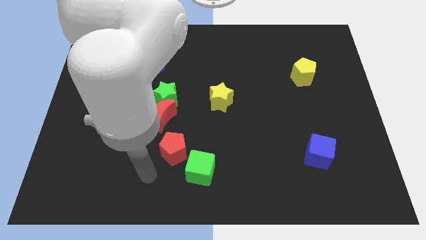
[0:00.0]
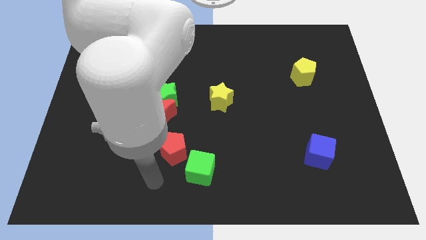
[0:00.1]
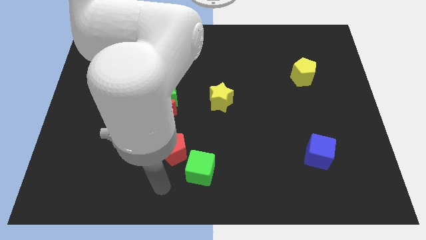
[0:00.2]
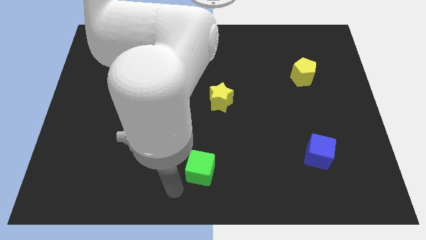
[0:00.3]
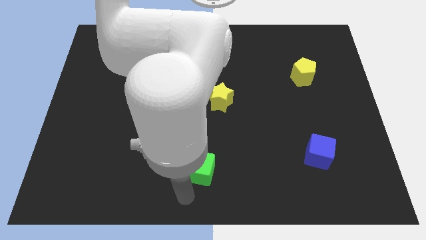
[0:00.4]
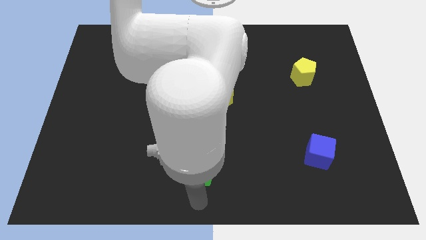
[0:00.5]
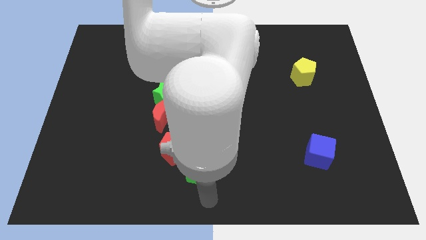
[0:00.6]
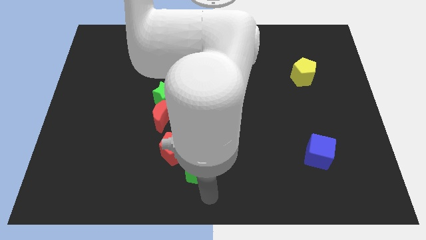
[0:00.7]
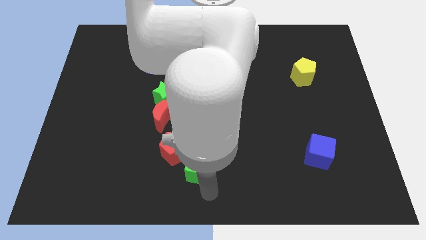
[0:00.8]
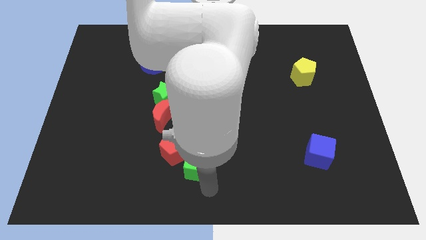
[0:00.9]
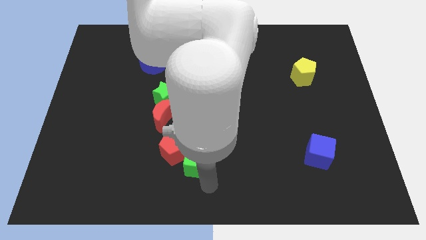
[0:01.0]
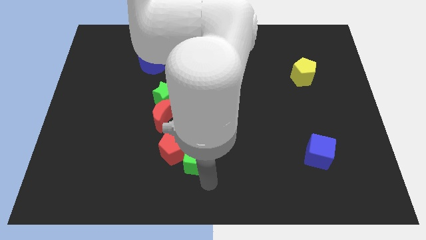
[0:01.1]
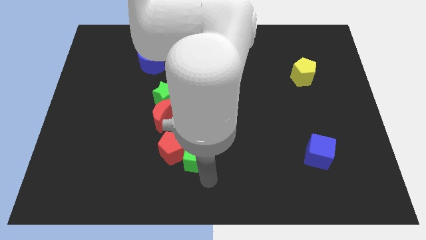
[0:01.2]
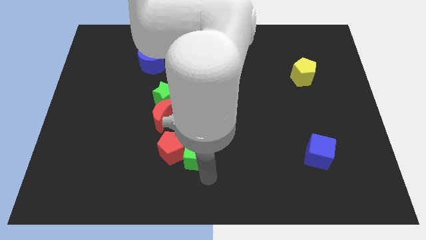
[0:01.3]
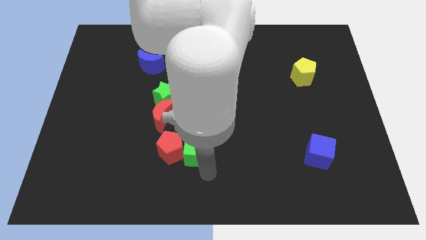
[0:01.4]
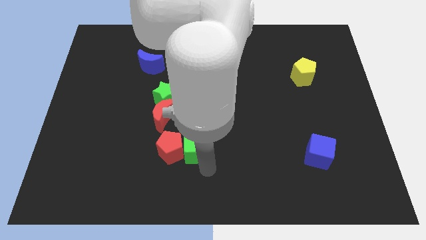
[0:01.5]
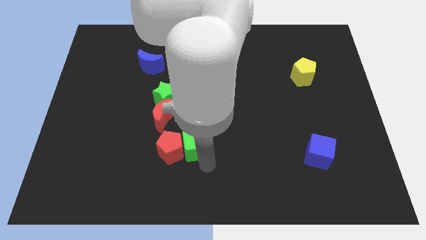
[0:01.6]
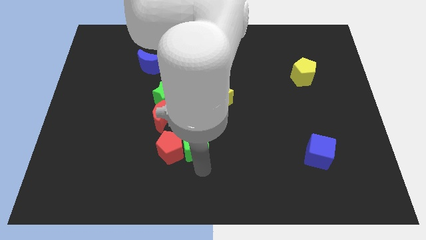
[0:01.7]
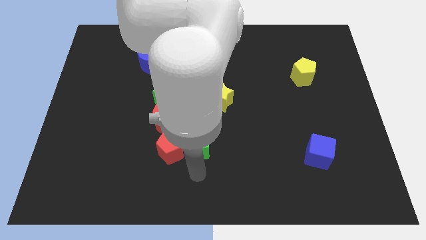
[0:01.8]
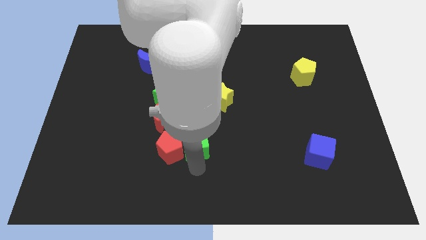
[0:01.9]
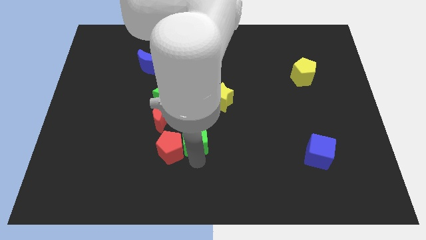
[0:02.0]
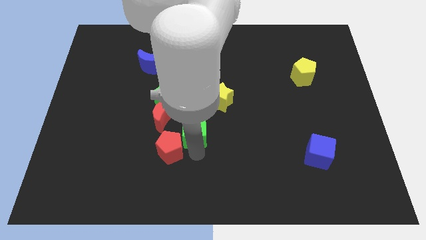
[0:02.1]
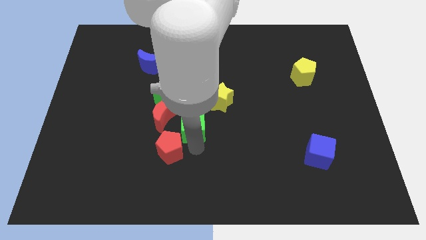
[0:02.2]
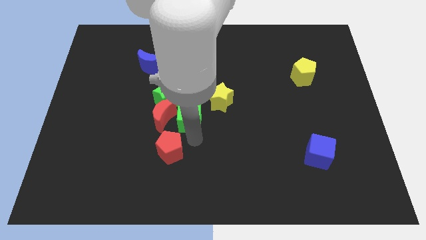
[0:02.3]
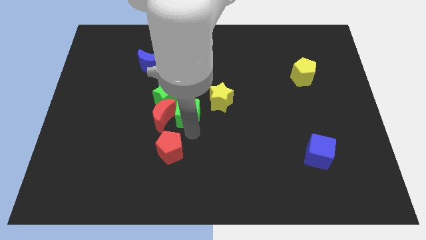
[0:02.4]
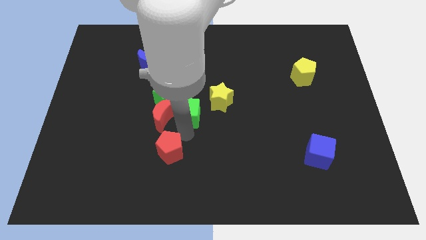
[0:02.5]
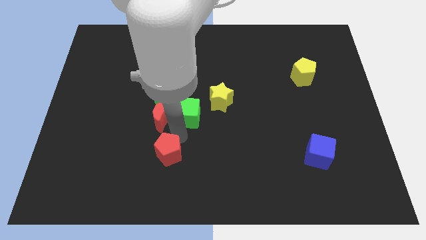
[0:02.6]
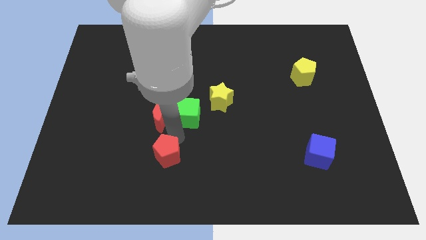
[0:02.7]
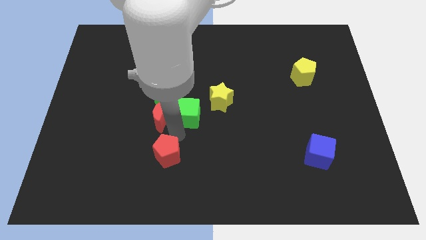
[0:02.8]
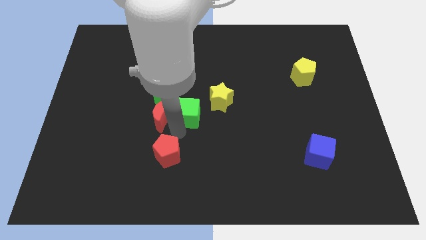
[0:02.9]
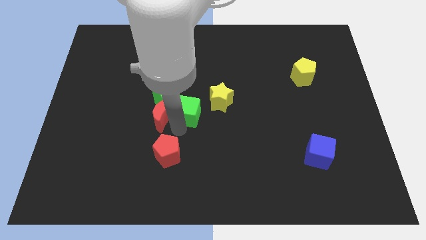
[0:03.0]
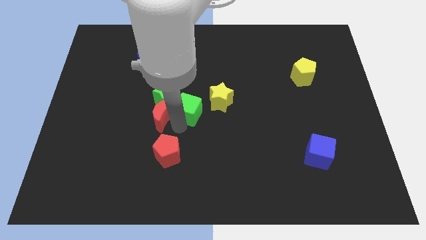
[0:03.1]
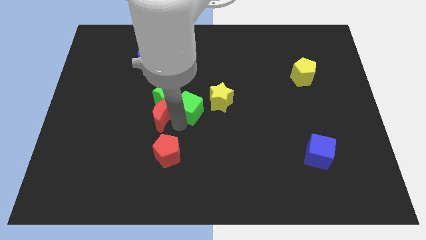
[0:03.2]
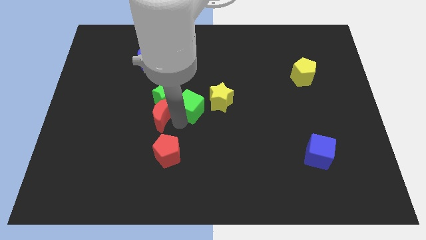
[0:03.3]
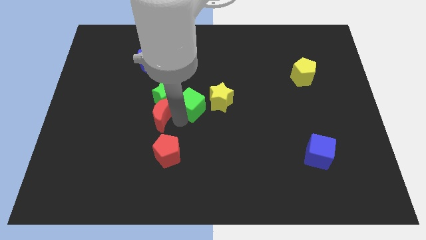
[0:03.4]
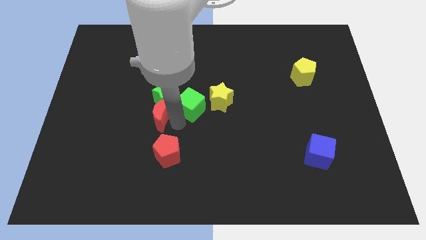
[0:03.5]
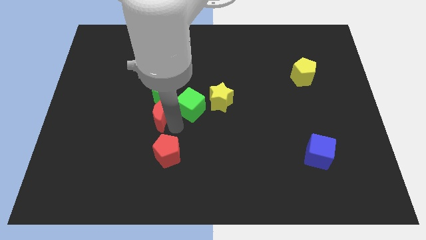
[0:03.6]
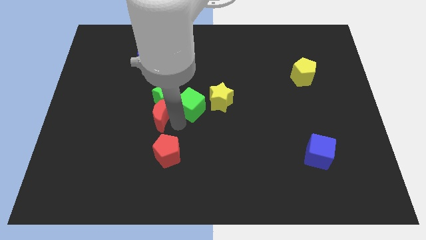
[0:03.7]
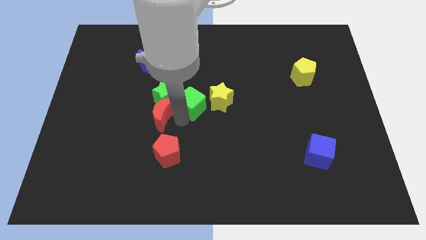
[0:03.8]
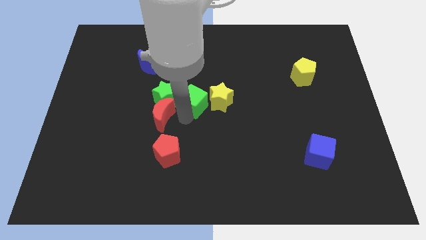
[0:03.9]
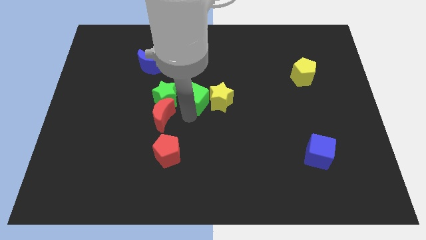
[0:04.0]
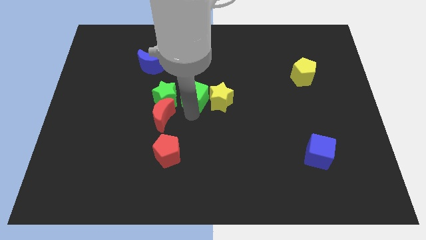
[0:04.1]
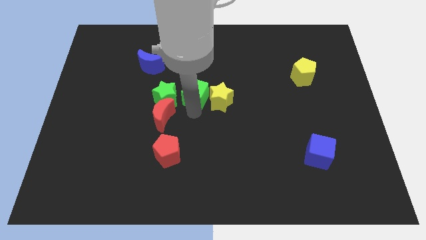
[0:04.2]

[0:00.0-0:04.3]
slide the green cube upwards

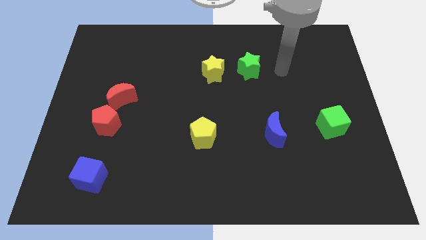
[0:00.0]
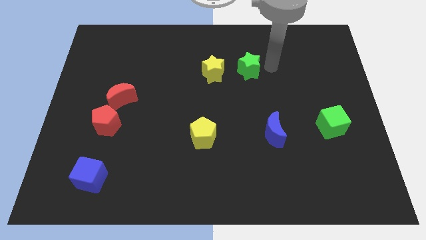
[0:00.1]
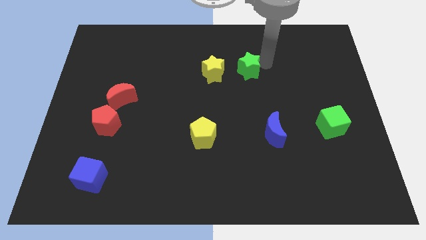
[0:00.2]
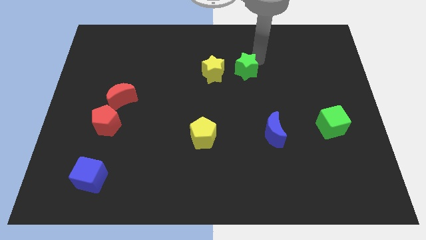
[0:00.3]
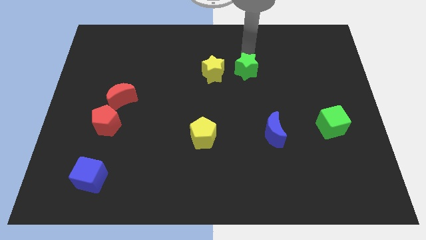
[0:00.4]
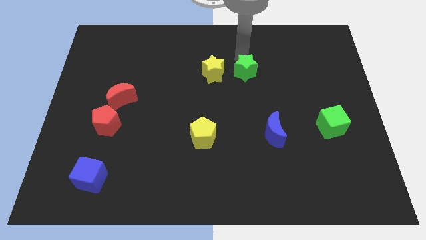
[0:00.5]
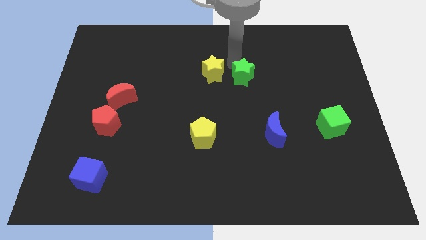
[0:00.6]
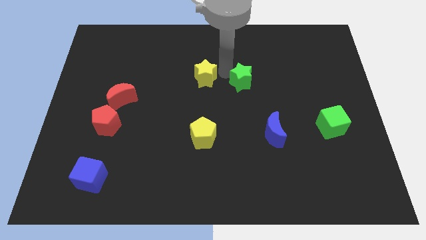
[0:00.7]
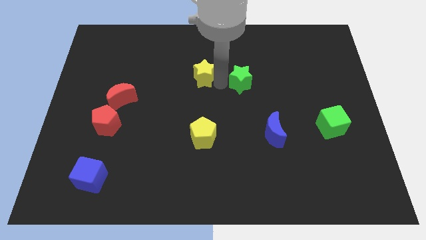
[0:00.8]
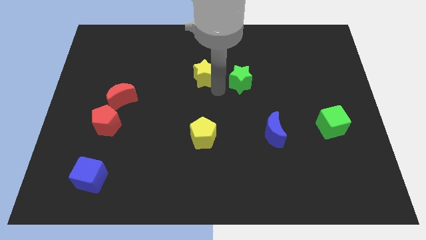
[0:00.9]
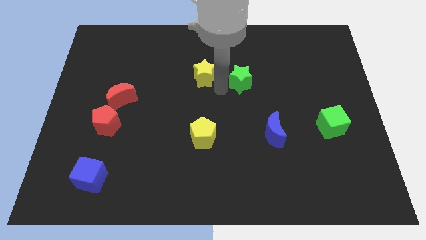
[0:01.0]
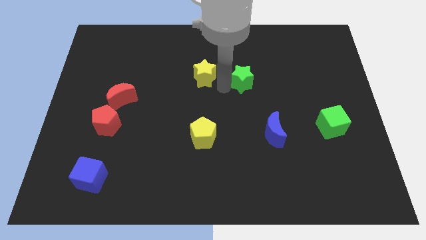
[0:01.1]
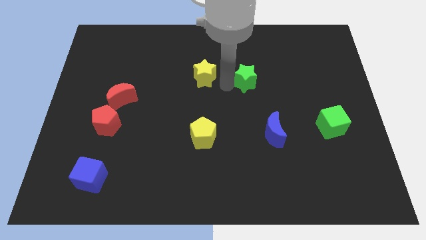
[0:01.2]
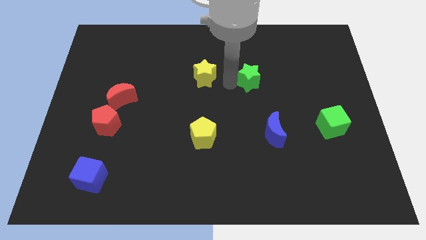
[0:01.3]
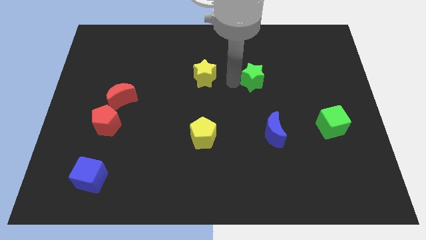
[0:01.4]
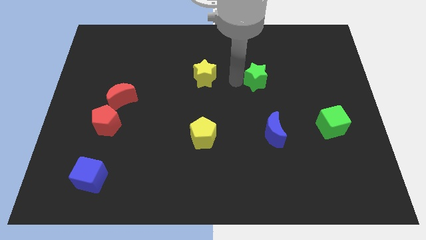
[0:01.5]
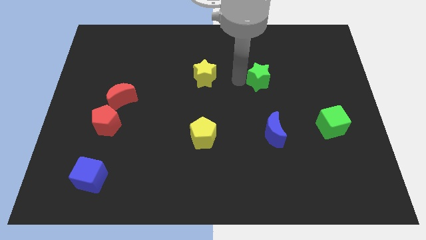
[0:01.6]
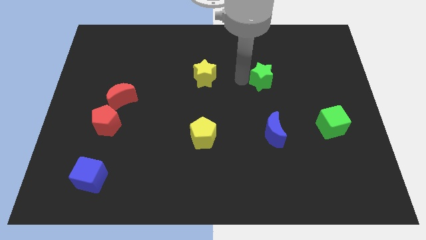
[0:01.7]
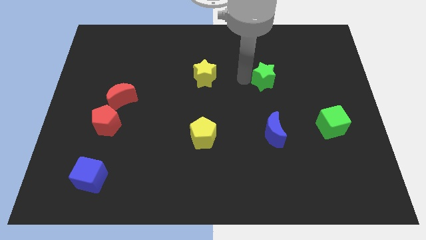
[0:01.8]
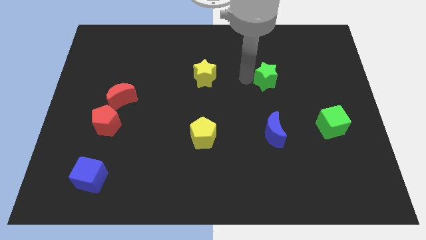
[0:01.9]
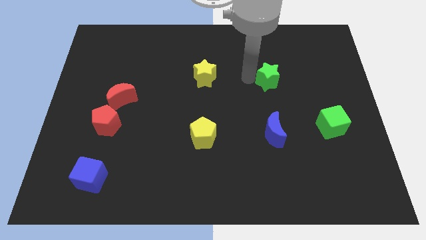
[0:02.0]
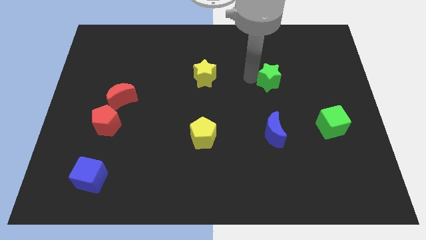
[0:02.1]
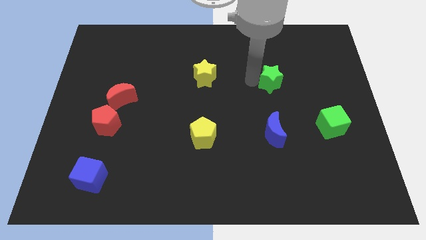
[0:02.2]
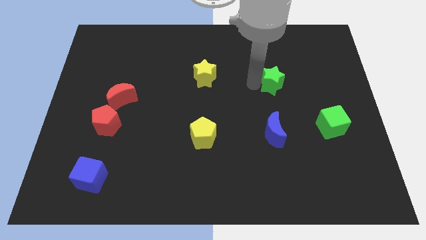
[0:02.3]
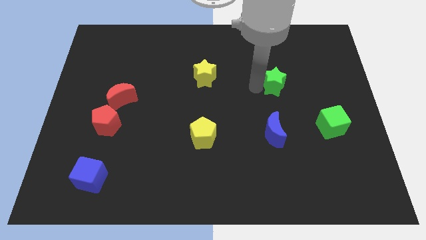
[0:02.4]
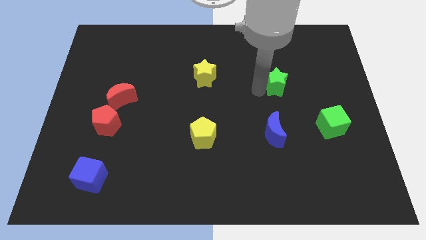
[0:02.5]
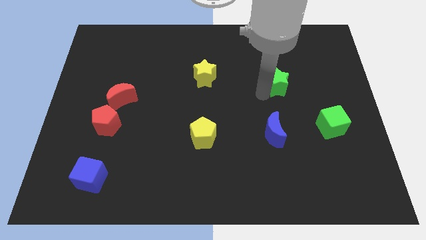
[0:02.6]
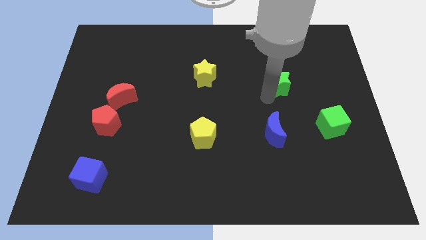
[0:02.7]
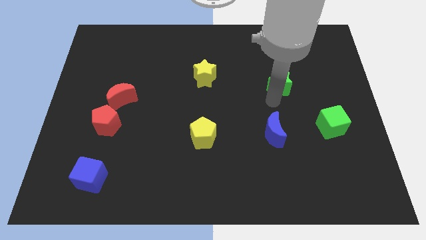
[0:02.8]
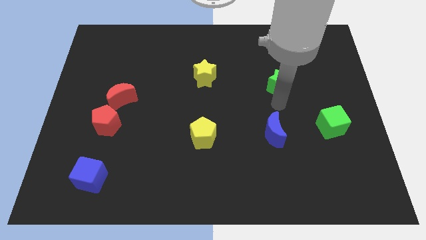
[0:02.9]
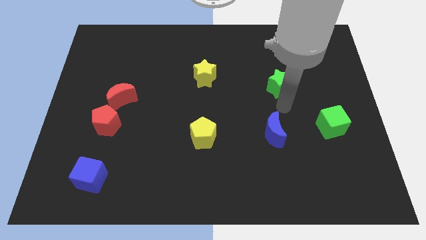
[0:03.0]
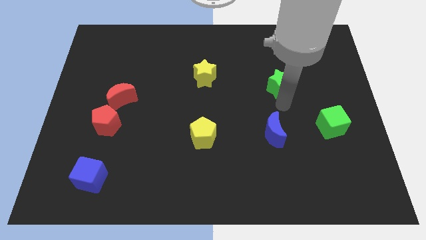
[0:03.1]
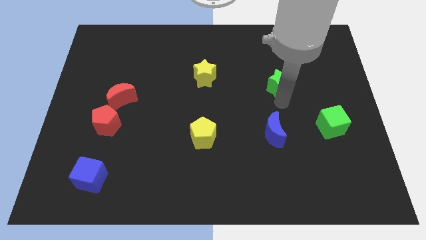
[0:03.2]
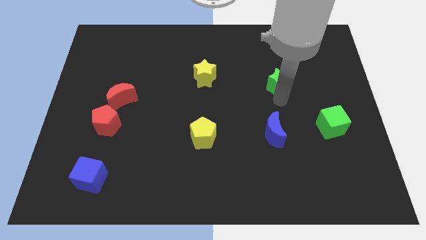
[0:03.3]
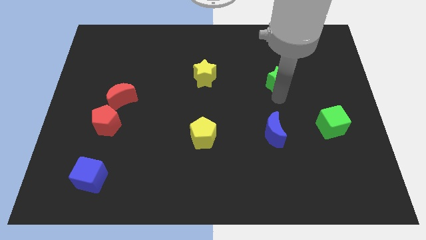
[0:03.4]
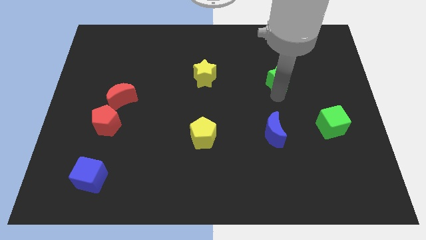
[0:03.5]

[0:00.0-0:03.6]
move the green star a little right
